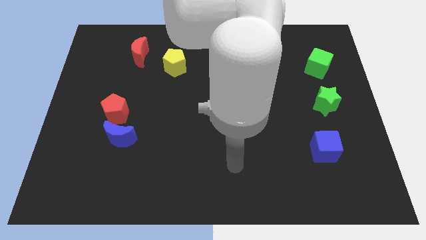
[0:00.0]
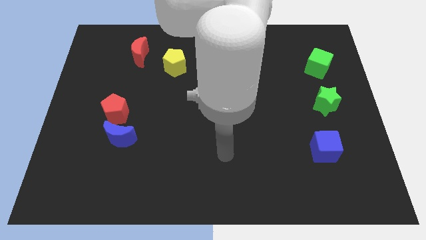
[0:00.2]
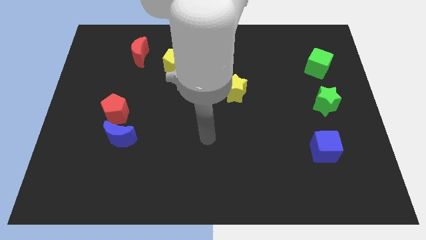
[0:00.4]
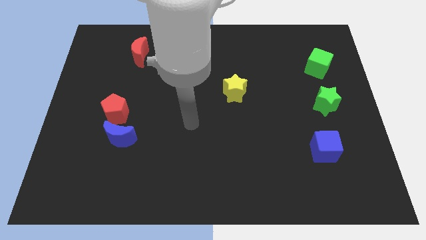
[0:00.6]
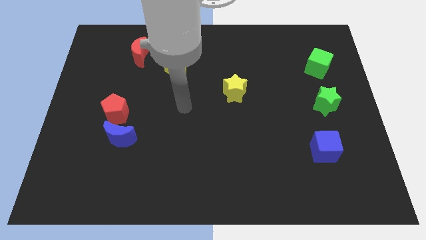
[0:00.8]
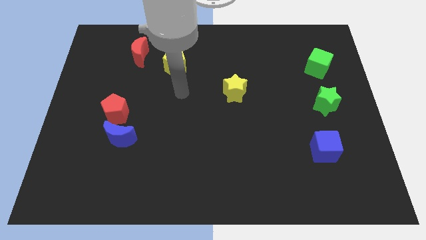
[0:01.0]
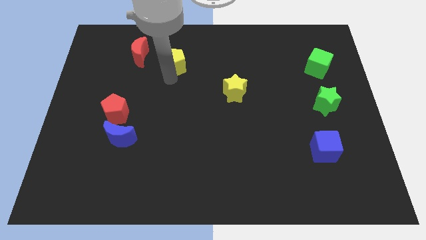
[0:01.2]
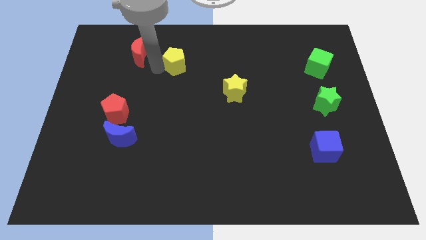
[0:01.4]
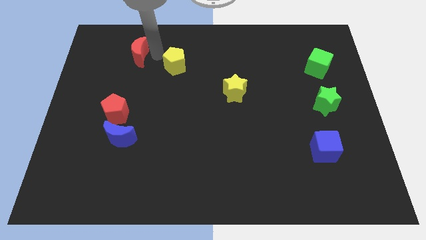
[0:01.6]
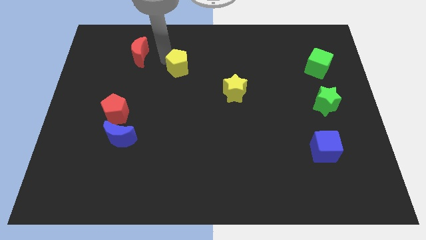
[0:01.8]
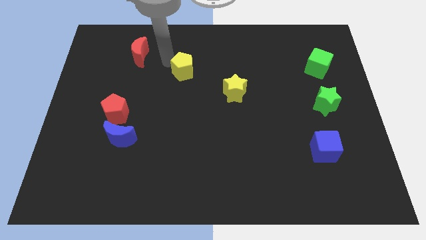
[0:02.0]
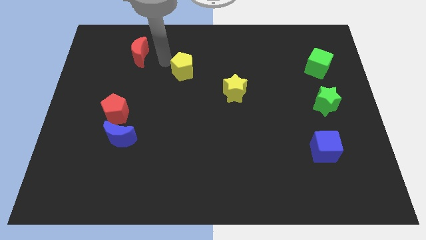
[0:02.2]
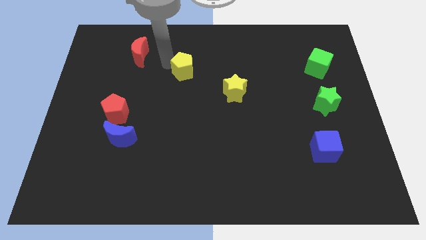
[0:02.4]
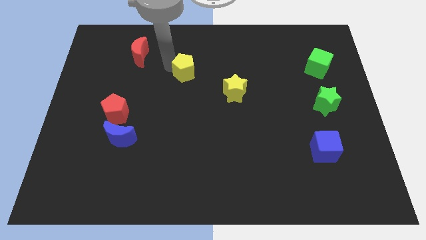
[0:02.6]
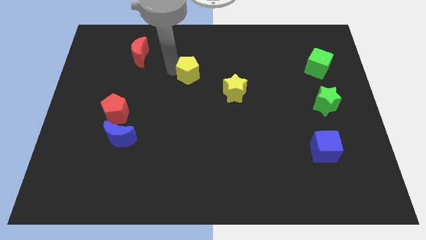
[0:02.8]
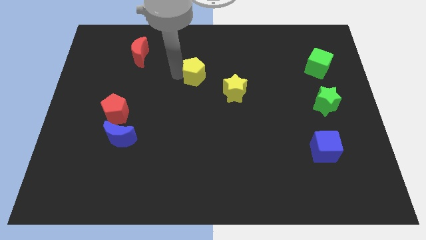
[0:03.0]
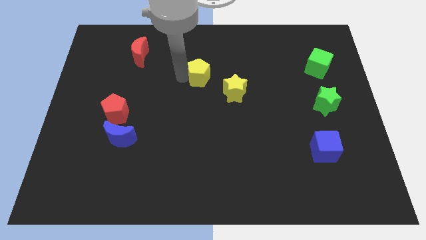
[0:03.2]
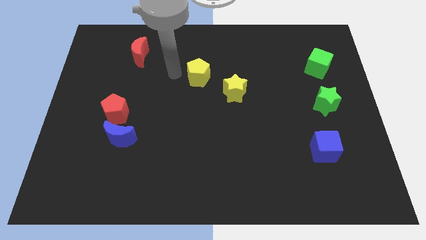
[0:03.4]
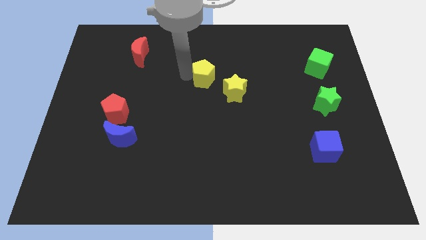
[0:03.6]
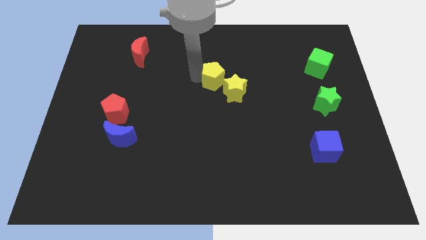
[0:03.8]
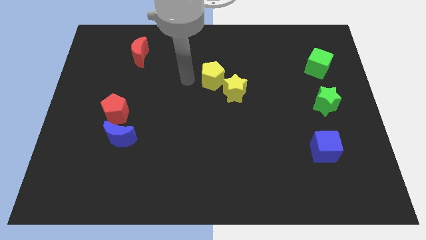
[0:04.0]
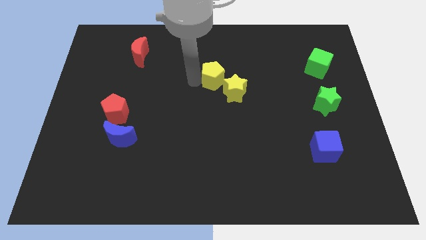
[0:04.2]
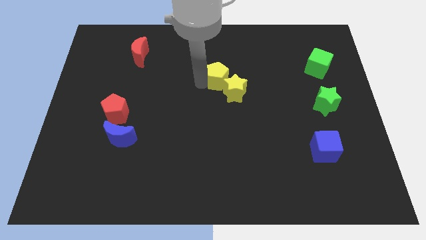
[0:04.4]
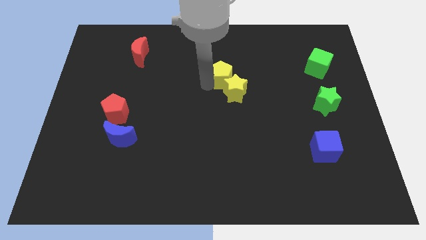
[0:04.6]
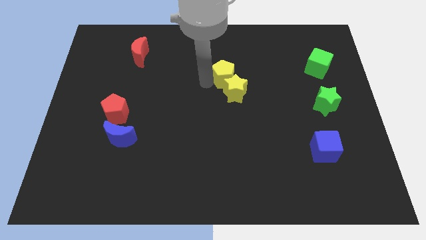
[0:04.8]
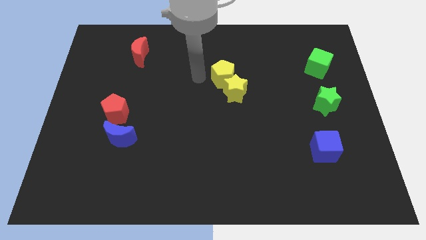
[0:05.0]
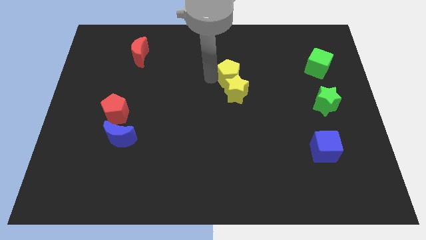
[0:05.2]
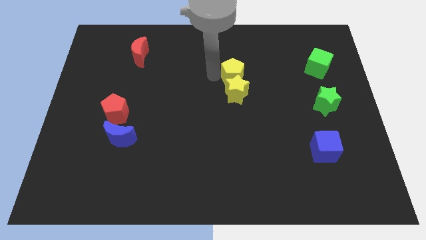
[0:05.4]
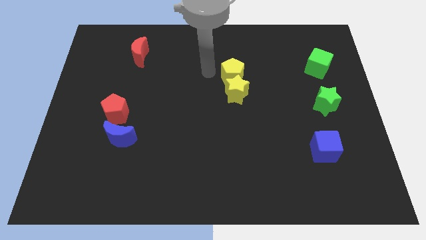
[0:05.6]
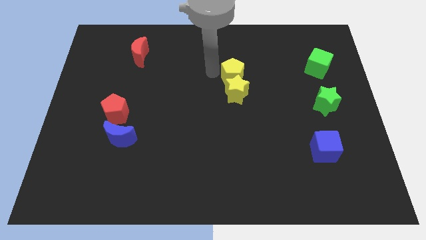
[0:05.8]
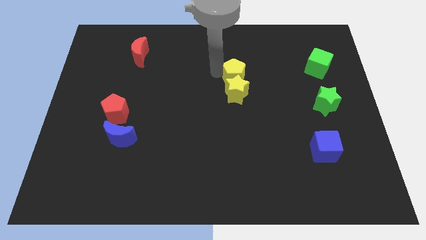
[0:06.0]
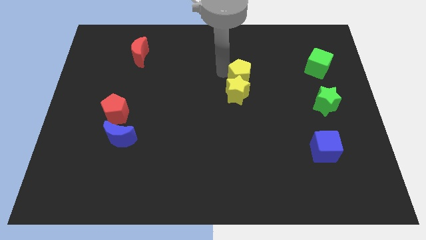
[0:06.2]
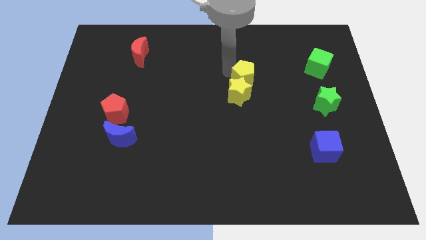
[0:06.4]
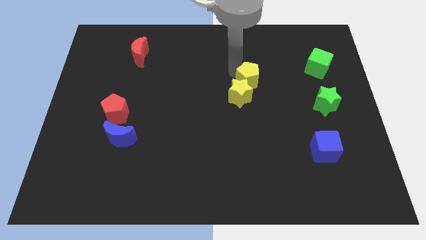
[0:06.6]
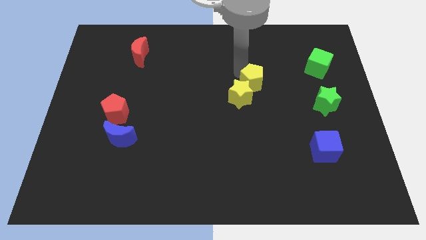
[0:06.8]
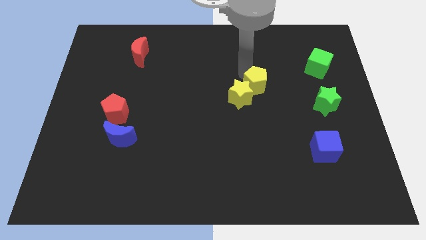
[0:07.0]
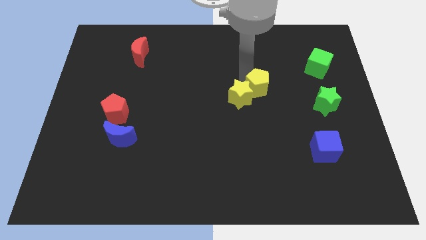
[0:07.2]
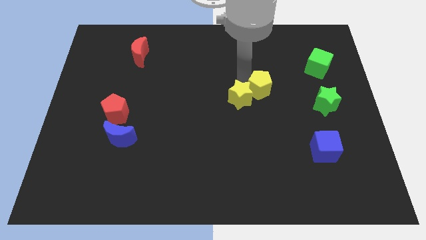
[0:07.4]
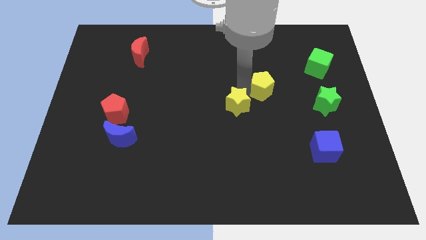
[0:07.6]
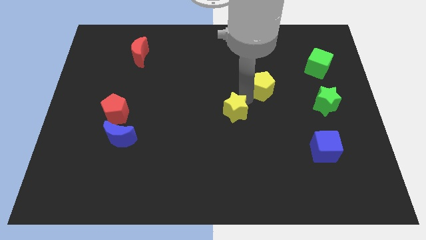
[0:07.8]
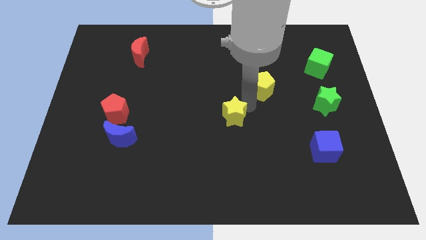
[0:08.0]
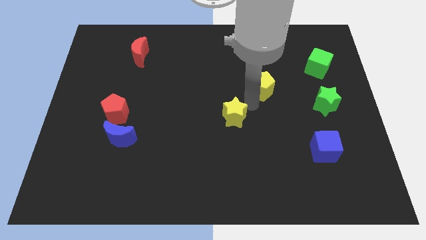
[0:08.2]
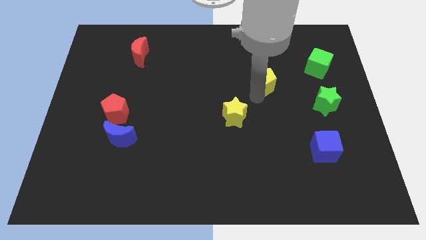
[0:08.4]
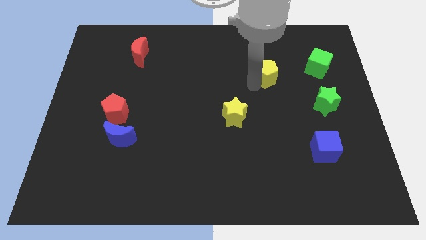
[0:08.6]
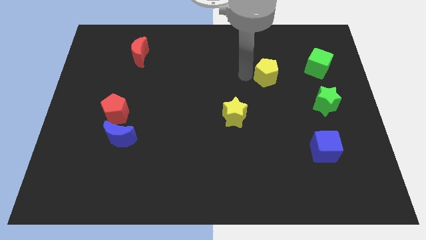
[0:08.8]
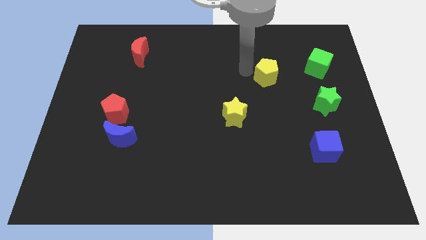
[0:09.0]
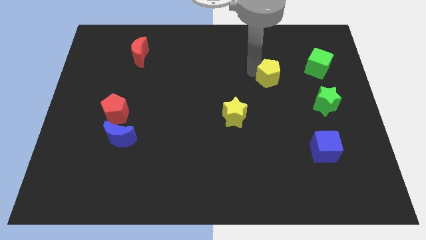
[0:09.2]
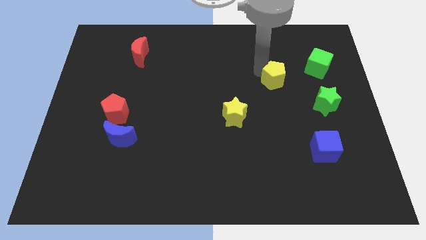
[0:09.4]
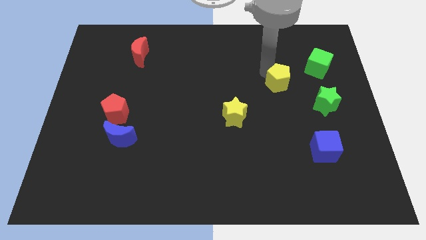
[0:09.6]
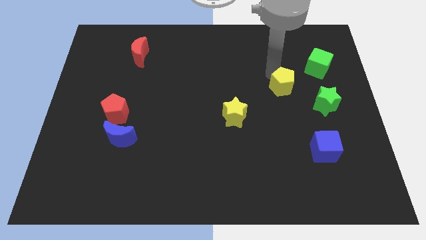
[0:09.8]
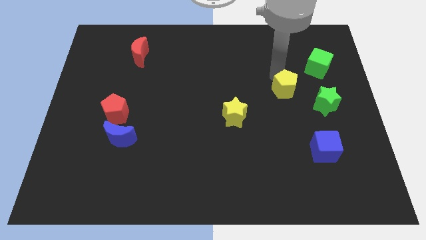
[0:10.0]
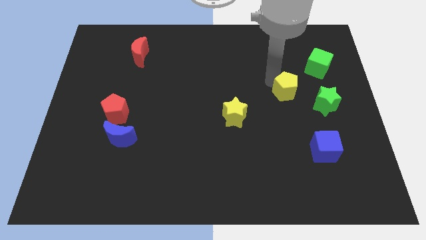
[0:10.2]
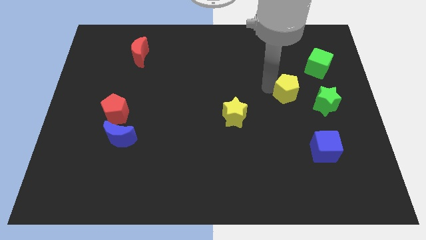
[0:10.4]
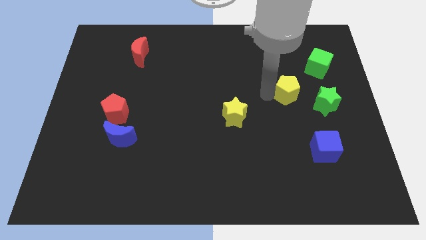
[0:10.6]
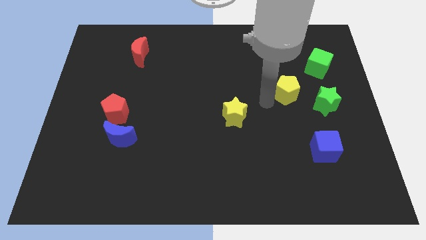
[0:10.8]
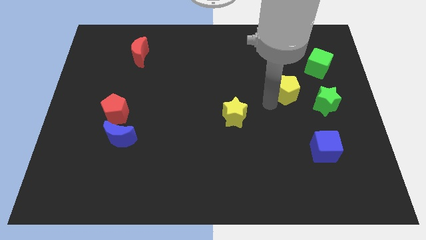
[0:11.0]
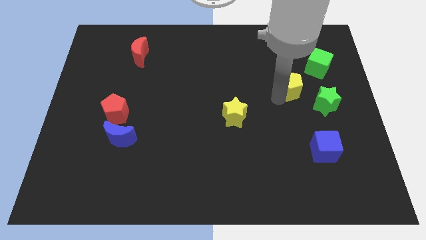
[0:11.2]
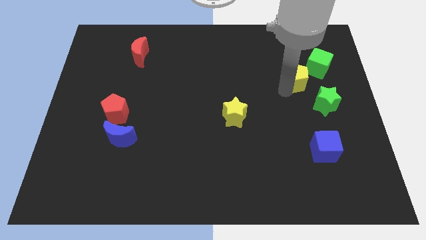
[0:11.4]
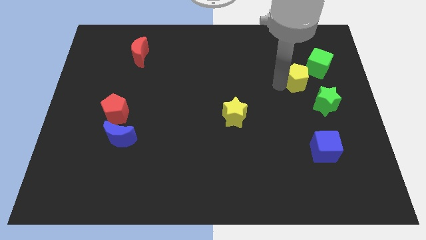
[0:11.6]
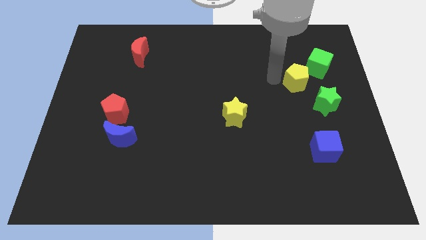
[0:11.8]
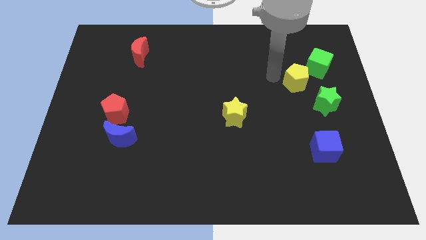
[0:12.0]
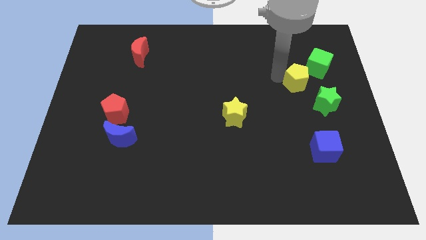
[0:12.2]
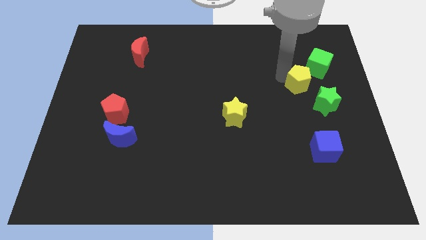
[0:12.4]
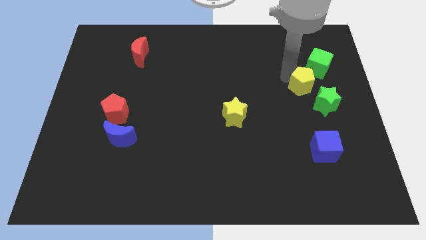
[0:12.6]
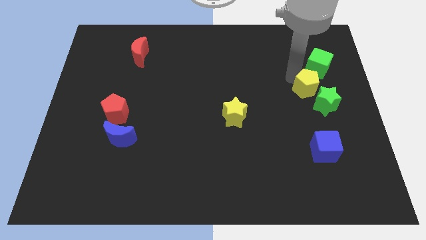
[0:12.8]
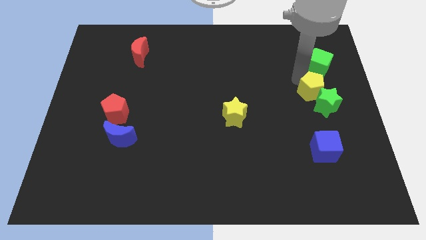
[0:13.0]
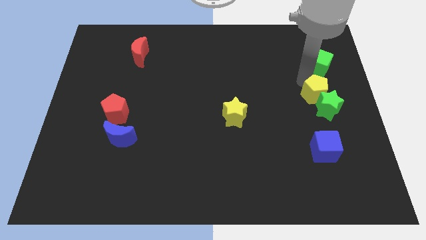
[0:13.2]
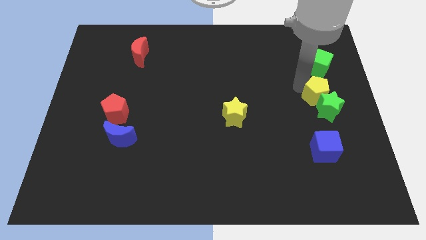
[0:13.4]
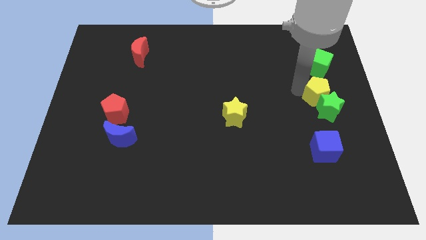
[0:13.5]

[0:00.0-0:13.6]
put the yellow pentagon to the right side
